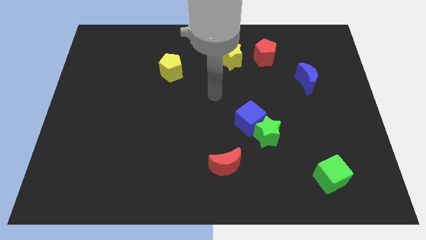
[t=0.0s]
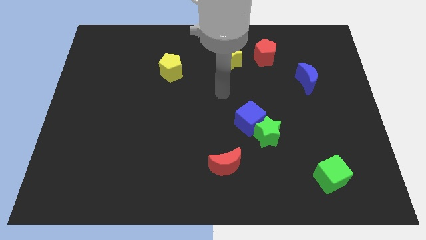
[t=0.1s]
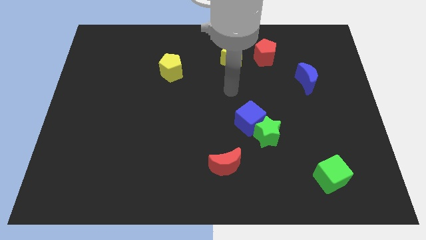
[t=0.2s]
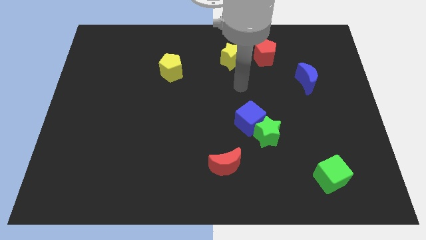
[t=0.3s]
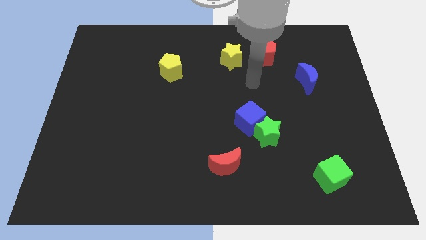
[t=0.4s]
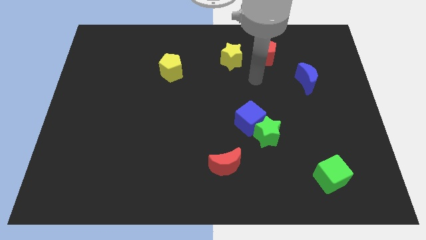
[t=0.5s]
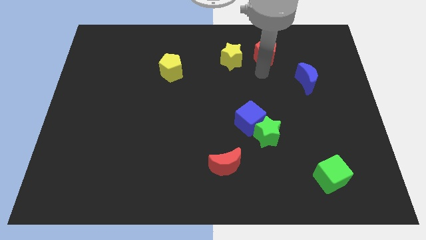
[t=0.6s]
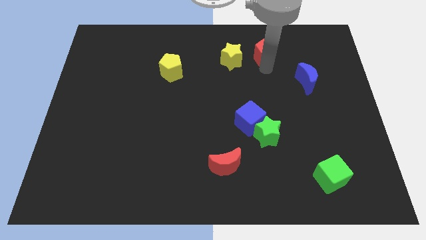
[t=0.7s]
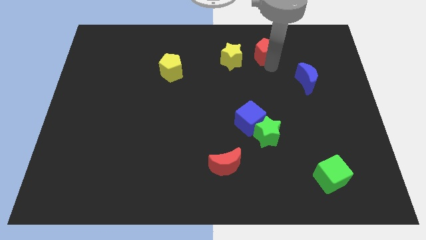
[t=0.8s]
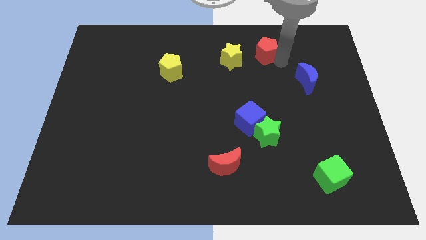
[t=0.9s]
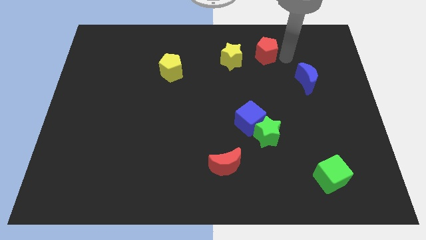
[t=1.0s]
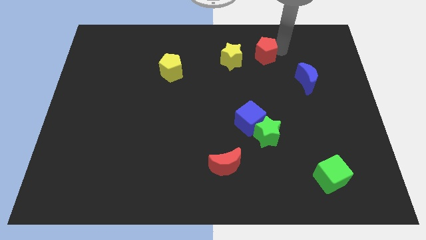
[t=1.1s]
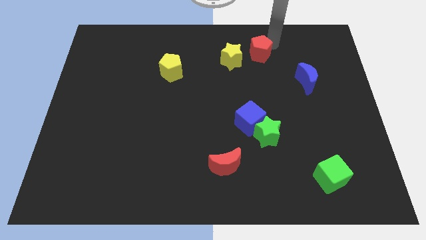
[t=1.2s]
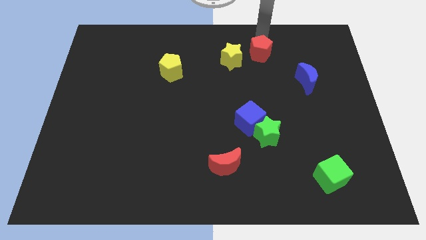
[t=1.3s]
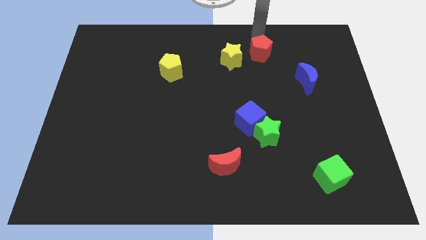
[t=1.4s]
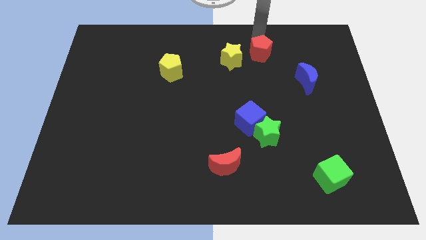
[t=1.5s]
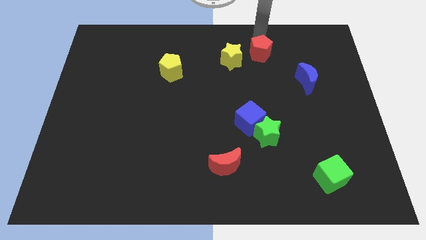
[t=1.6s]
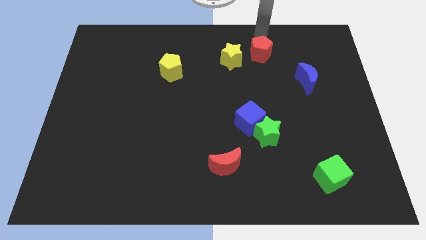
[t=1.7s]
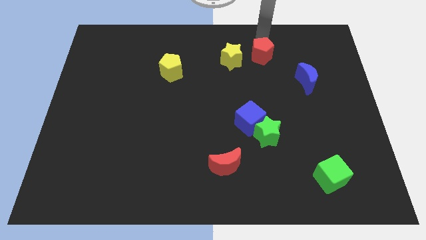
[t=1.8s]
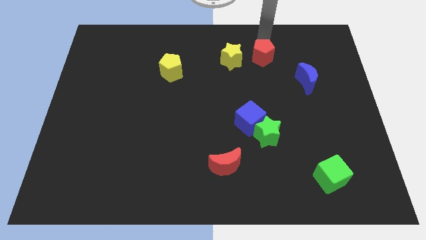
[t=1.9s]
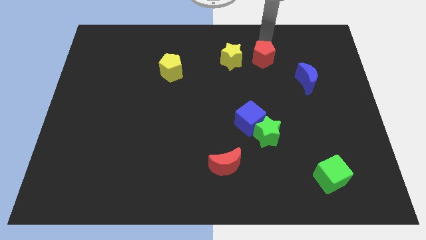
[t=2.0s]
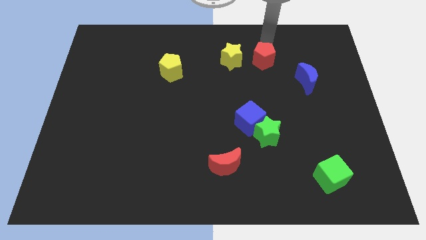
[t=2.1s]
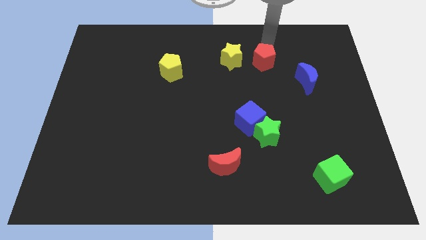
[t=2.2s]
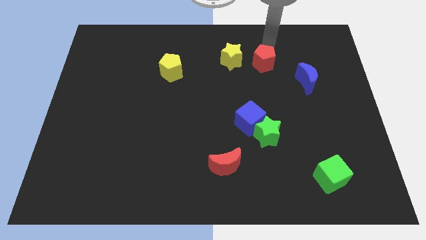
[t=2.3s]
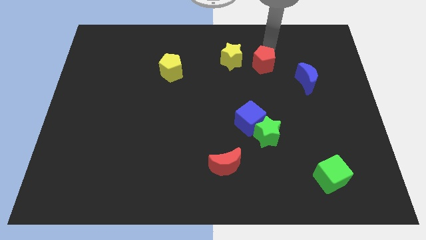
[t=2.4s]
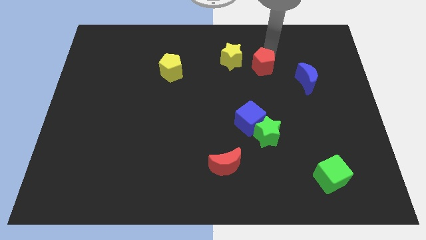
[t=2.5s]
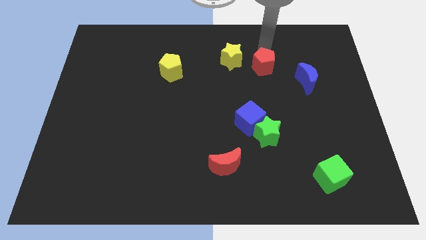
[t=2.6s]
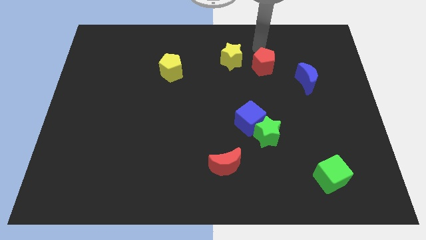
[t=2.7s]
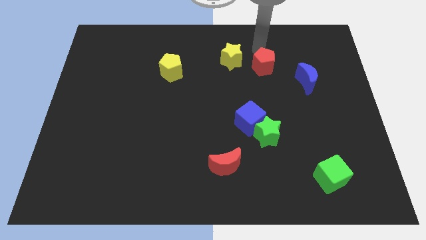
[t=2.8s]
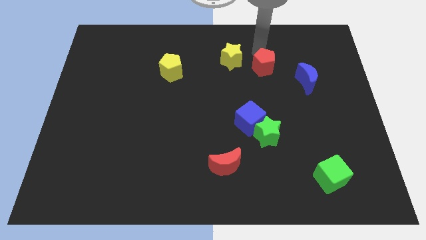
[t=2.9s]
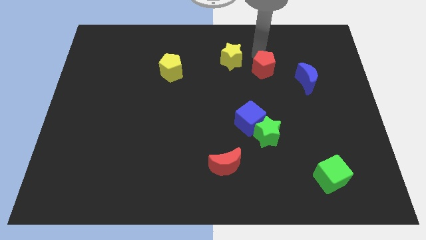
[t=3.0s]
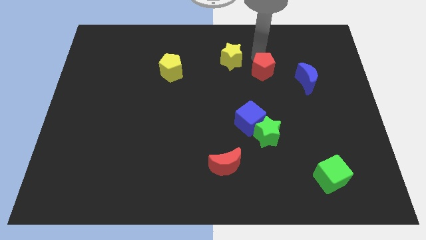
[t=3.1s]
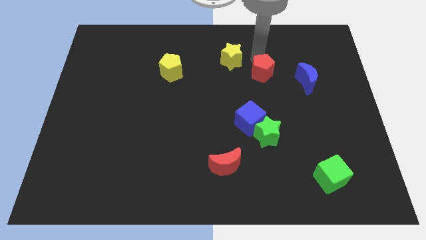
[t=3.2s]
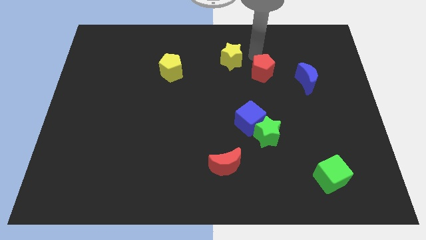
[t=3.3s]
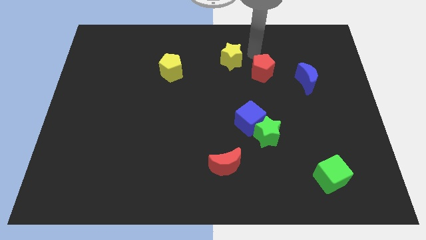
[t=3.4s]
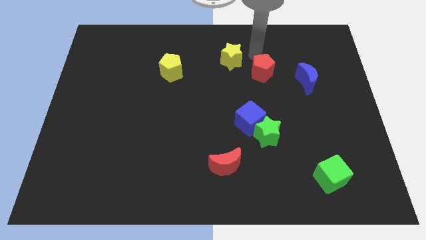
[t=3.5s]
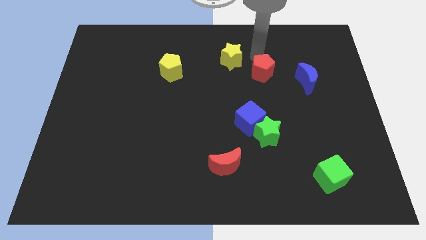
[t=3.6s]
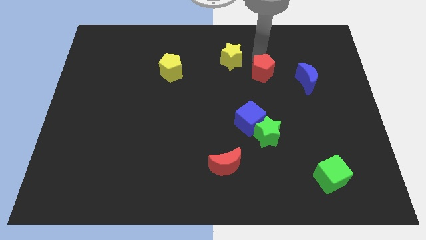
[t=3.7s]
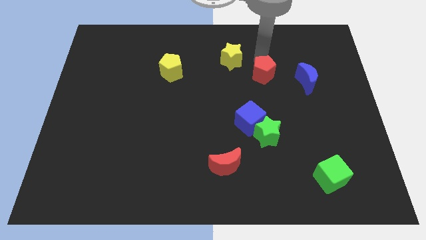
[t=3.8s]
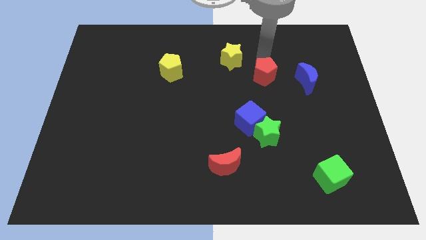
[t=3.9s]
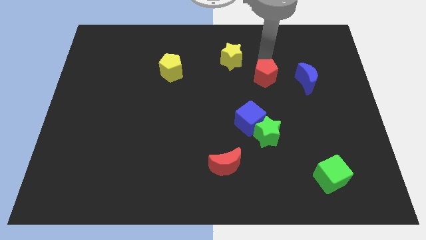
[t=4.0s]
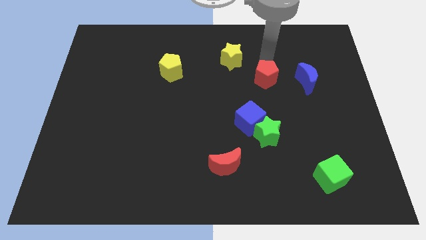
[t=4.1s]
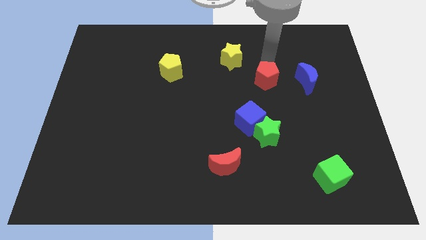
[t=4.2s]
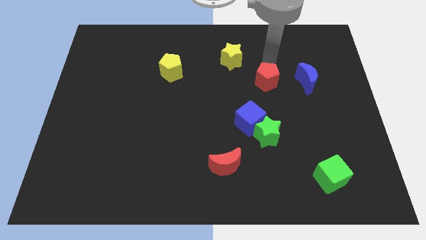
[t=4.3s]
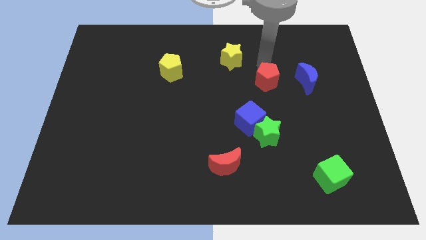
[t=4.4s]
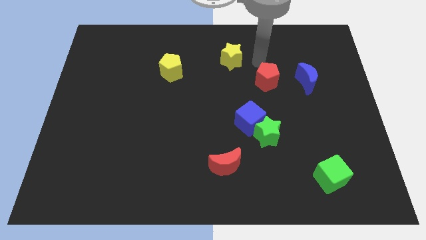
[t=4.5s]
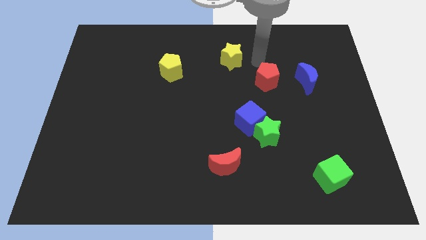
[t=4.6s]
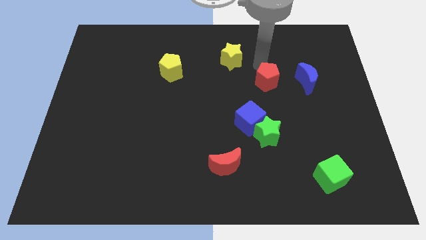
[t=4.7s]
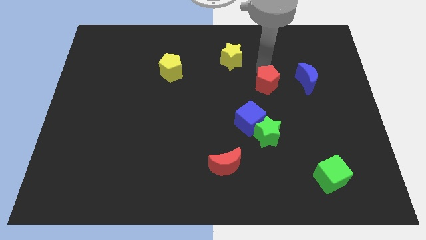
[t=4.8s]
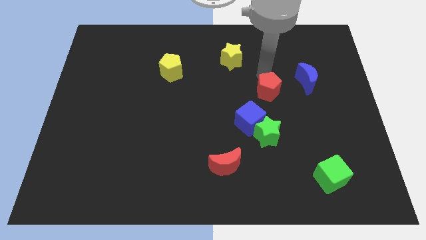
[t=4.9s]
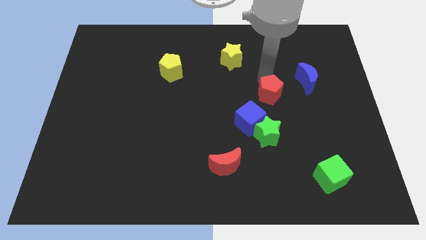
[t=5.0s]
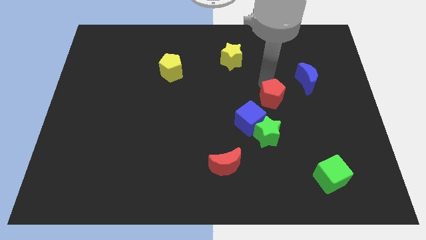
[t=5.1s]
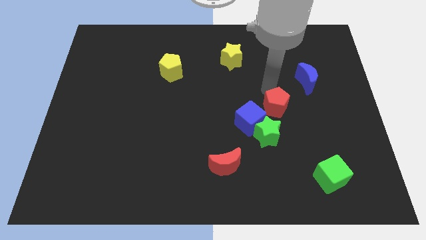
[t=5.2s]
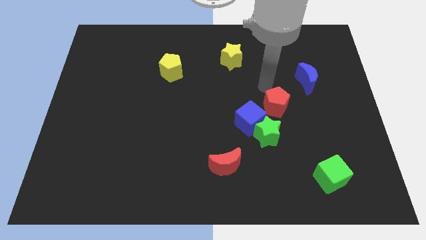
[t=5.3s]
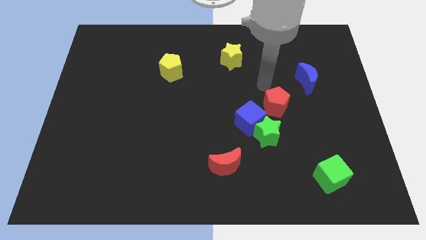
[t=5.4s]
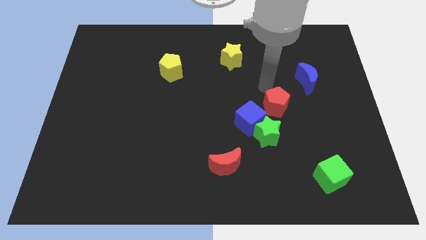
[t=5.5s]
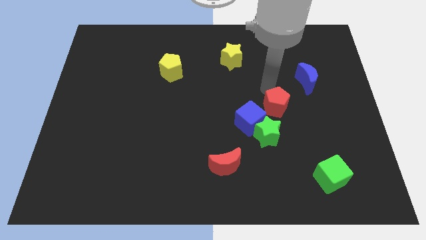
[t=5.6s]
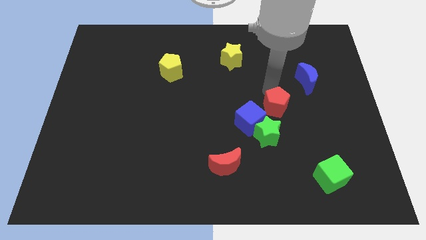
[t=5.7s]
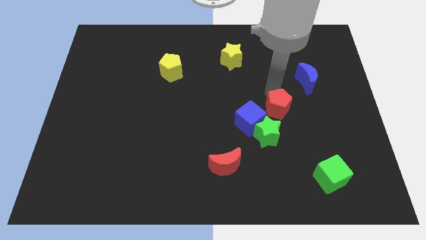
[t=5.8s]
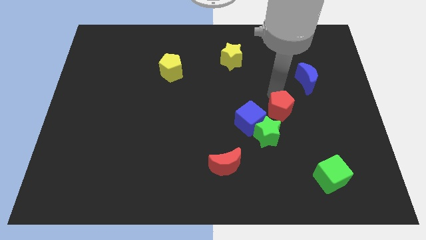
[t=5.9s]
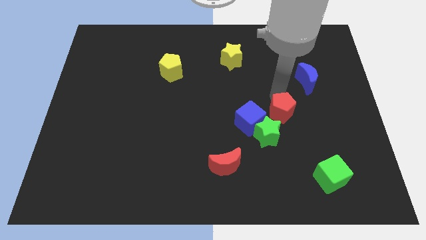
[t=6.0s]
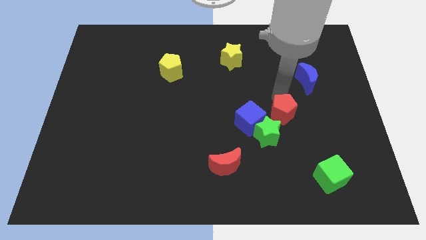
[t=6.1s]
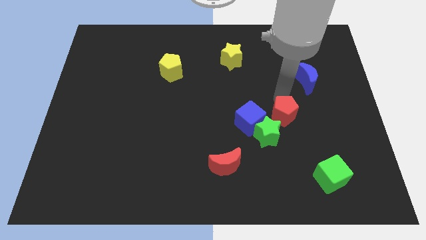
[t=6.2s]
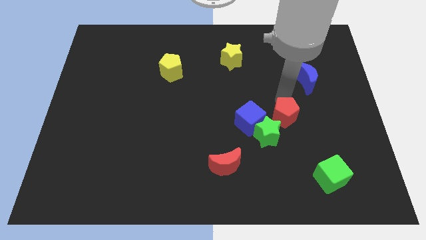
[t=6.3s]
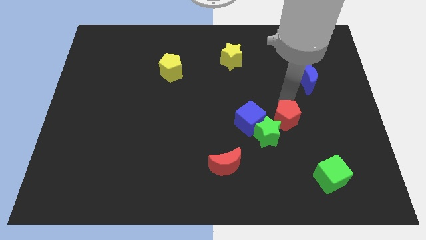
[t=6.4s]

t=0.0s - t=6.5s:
move the red pentagon down

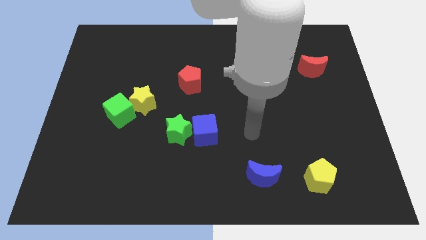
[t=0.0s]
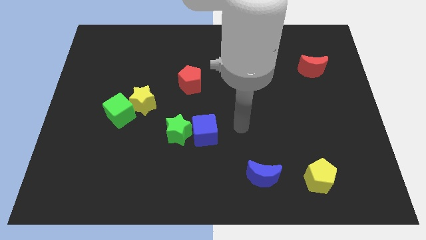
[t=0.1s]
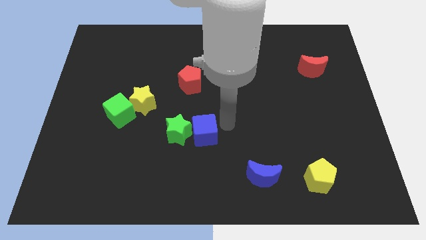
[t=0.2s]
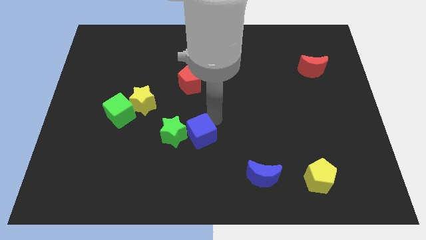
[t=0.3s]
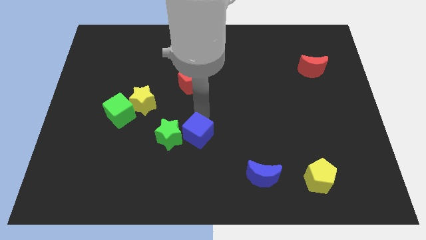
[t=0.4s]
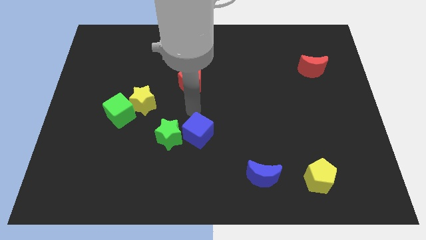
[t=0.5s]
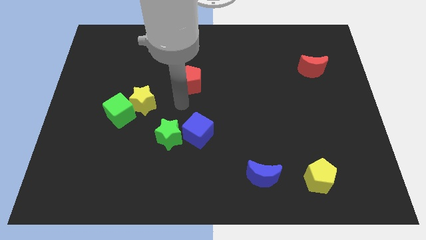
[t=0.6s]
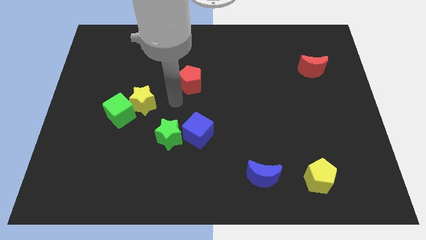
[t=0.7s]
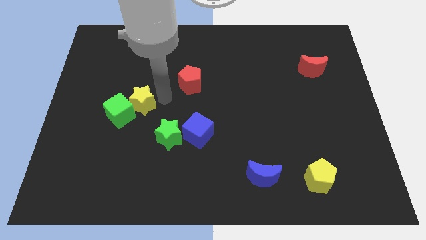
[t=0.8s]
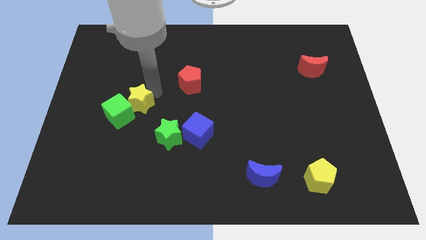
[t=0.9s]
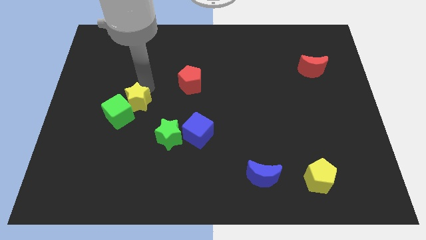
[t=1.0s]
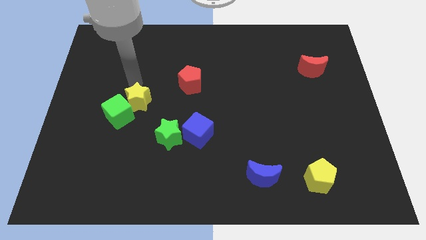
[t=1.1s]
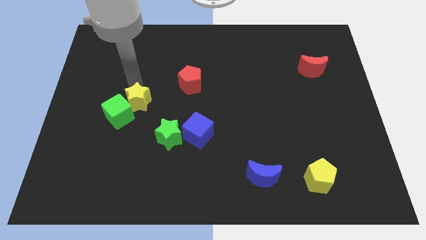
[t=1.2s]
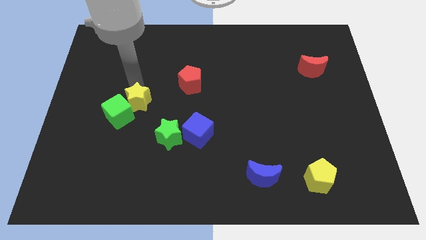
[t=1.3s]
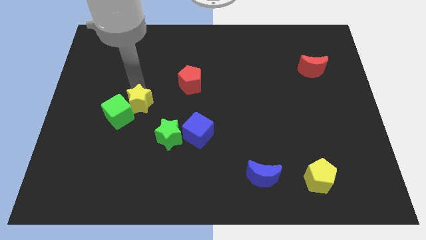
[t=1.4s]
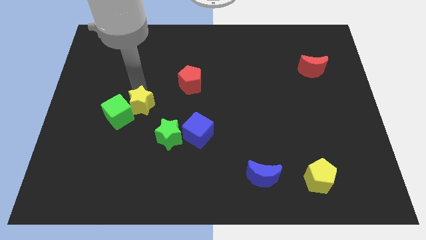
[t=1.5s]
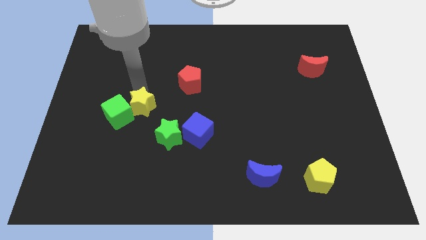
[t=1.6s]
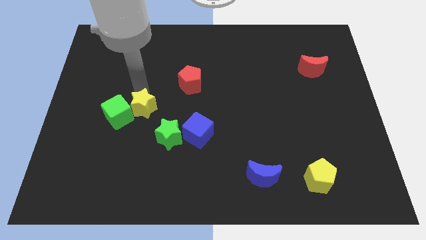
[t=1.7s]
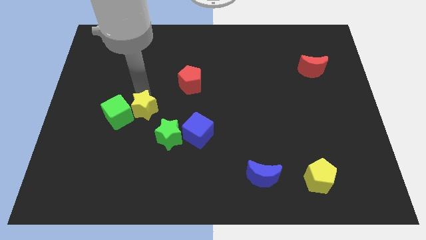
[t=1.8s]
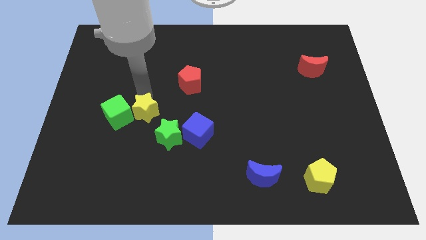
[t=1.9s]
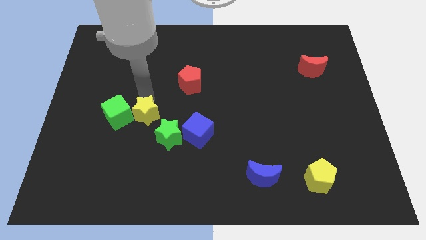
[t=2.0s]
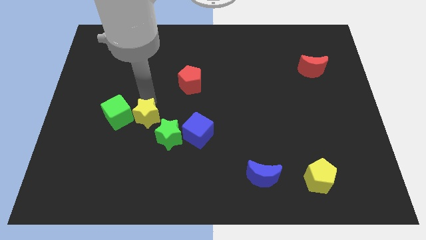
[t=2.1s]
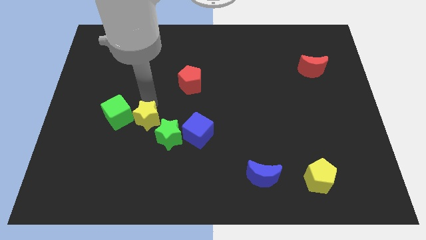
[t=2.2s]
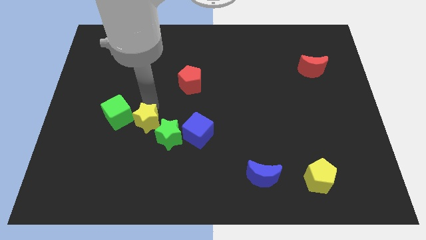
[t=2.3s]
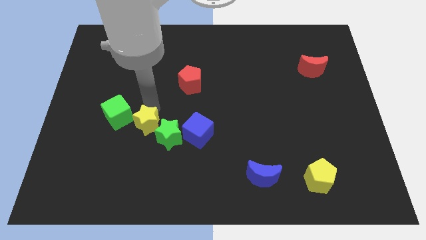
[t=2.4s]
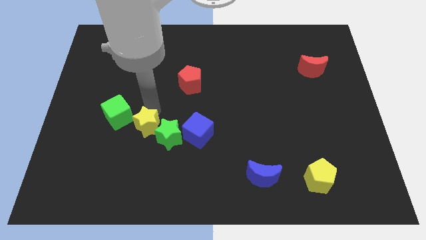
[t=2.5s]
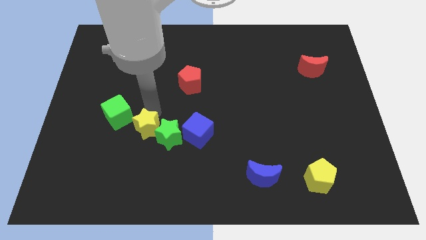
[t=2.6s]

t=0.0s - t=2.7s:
push the yellow star somewhat down
